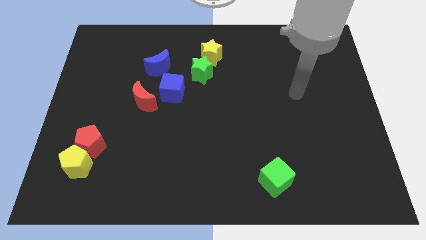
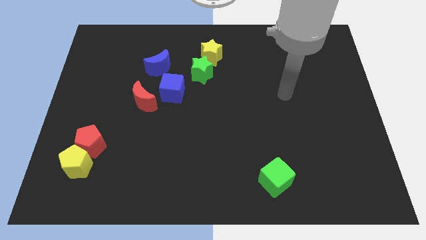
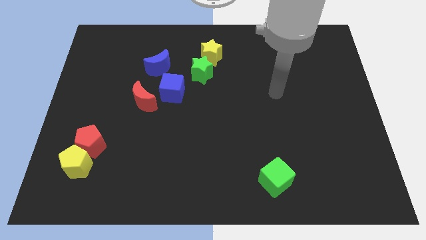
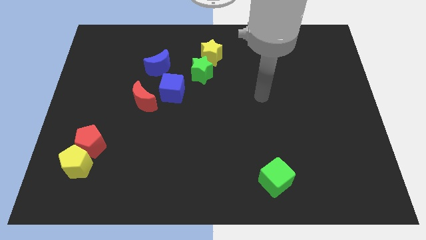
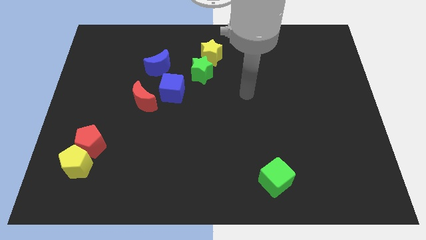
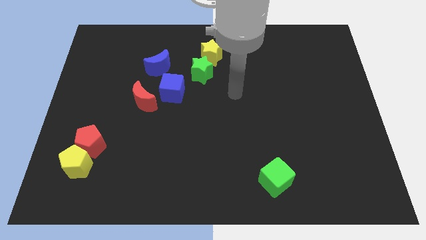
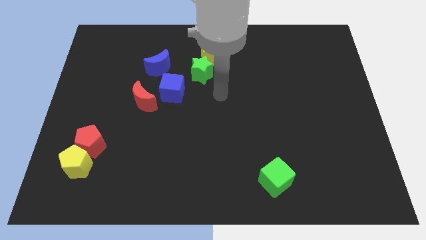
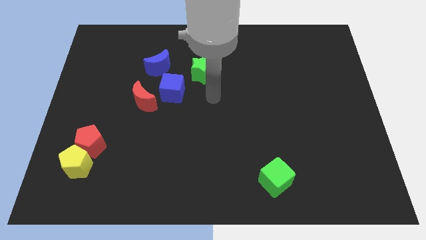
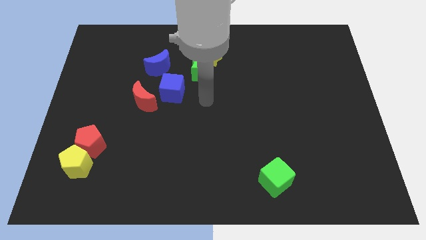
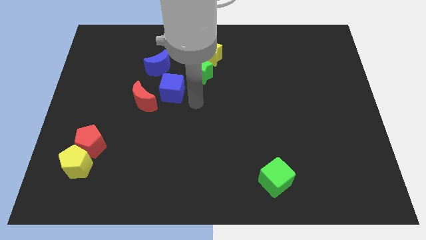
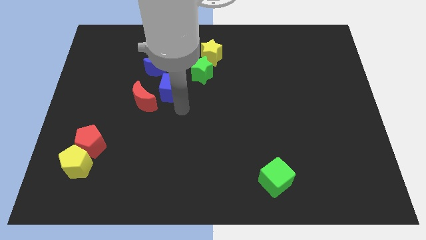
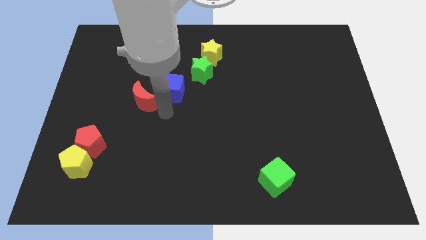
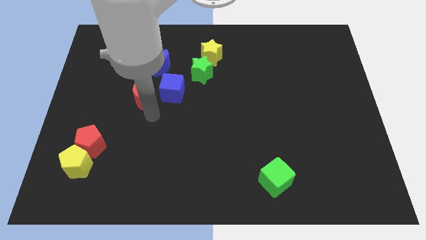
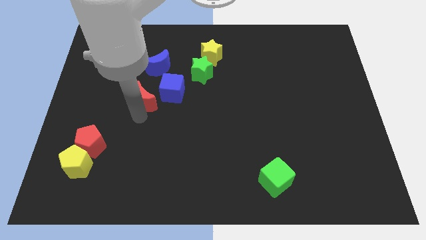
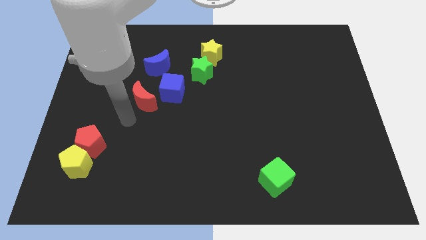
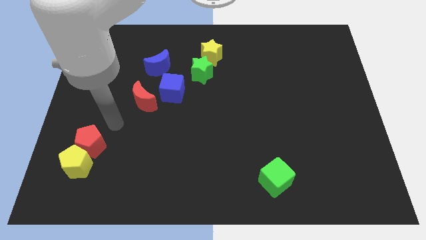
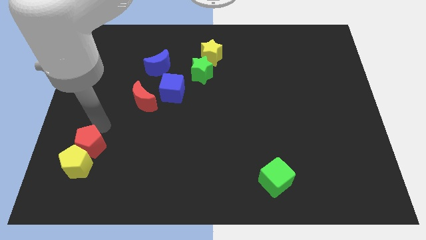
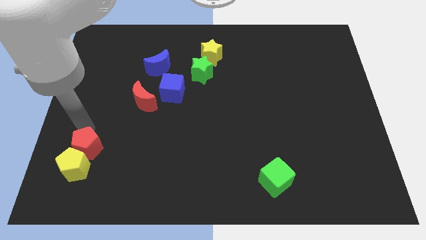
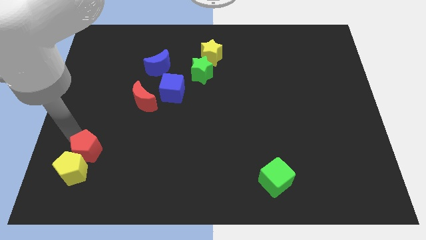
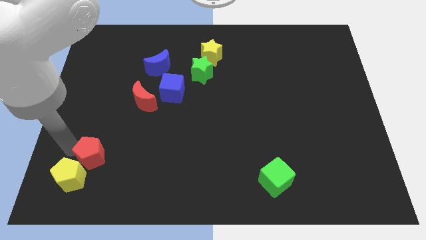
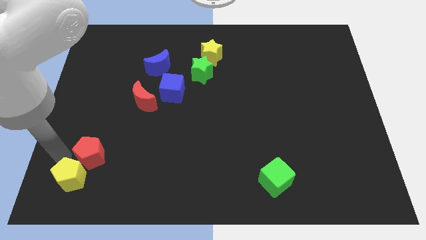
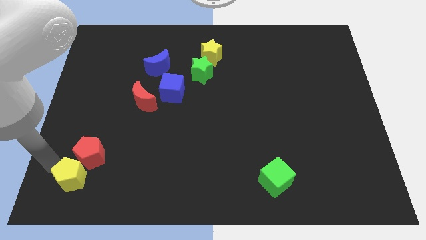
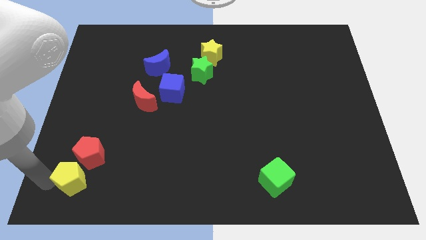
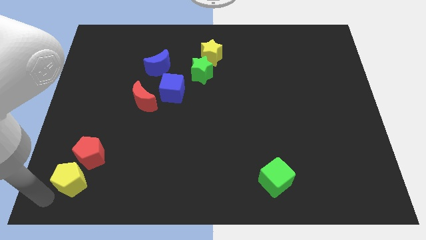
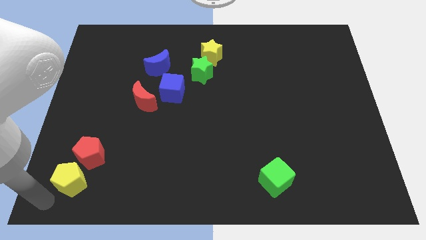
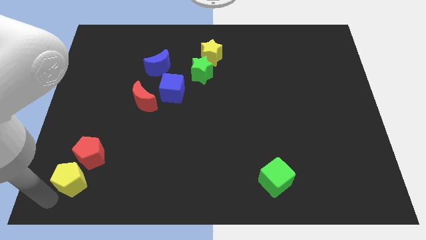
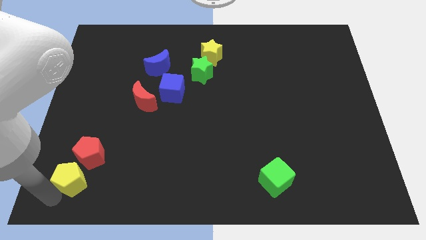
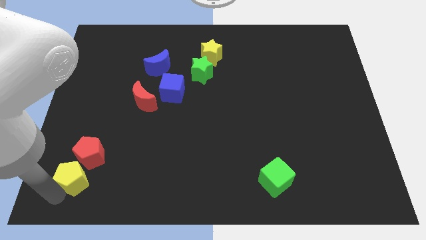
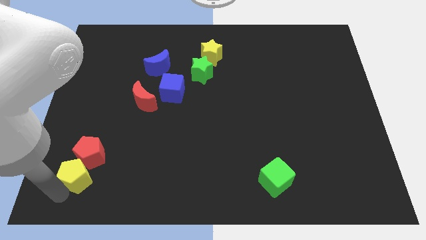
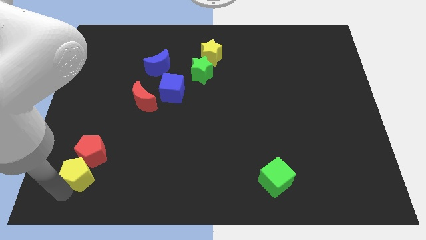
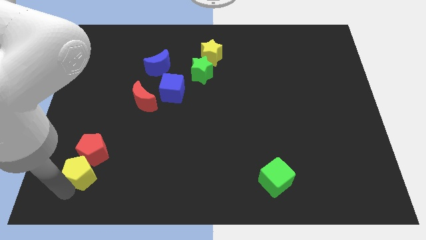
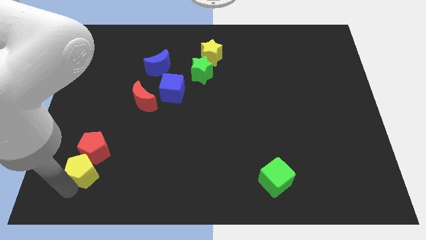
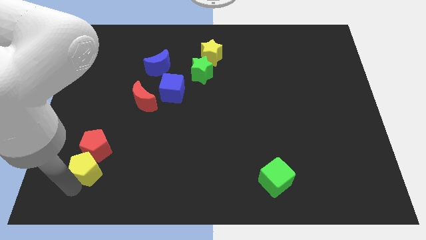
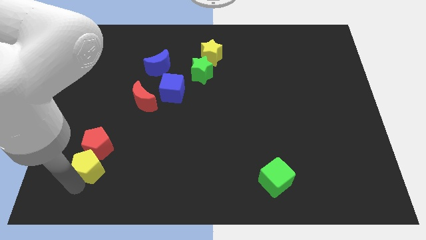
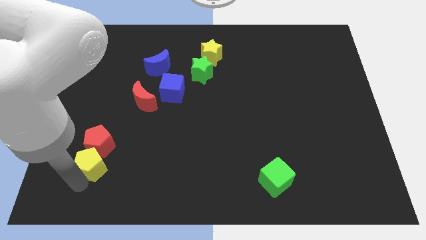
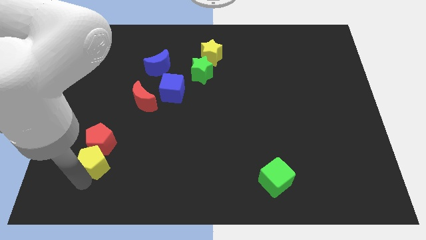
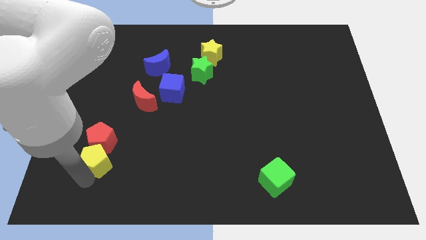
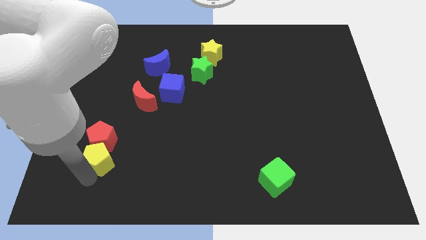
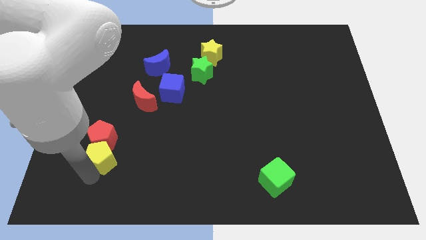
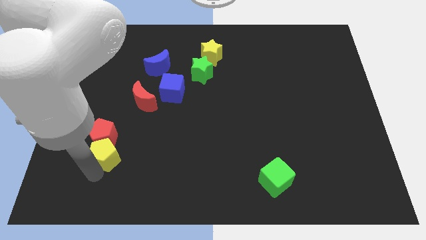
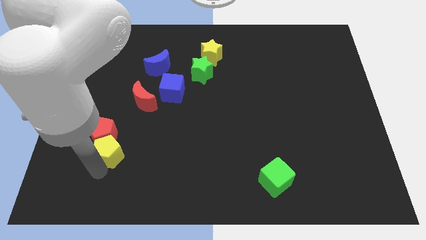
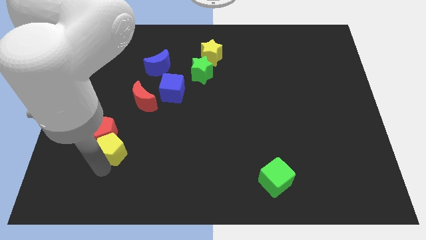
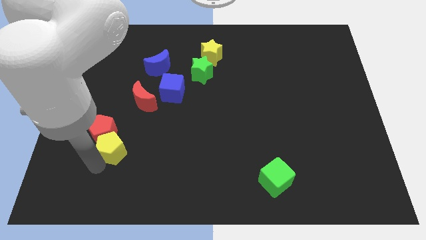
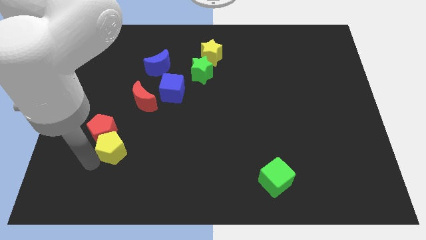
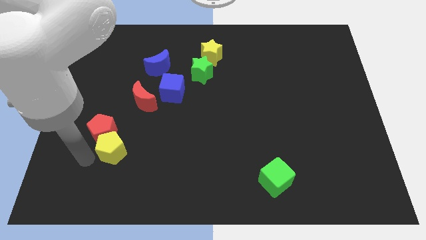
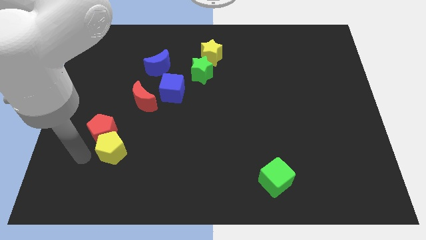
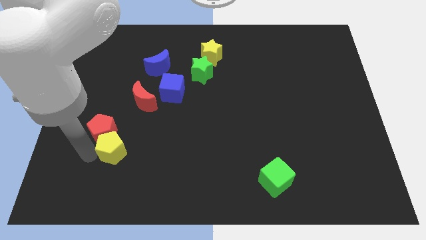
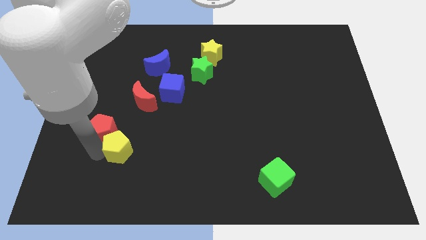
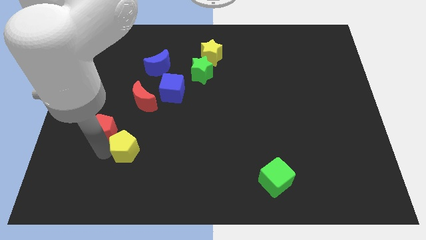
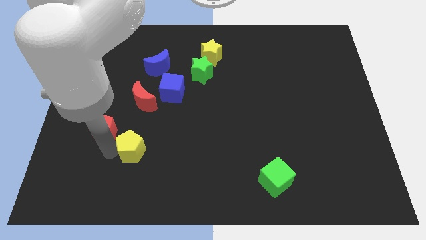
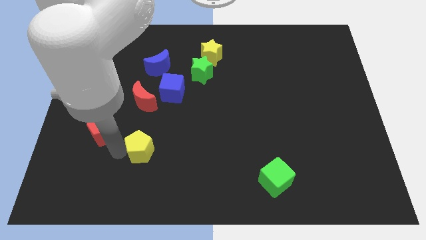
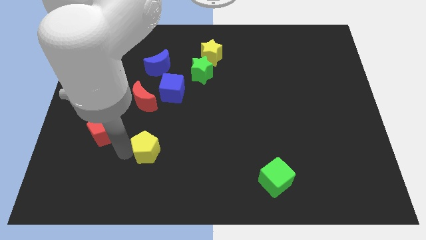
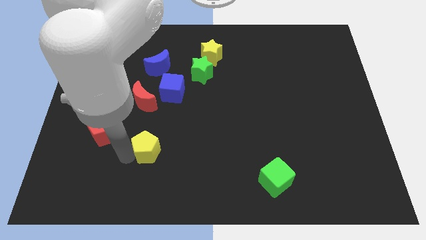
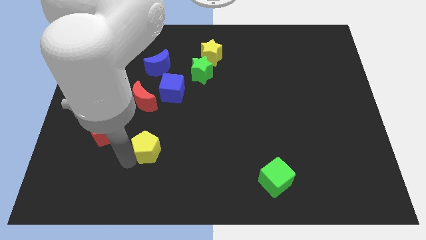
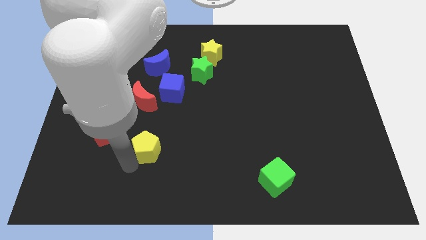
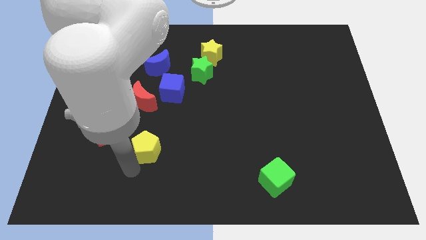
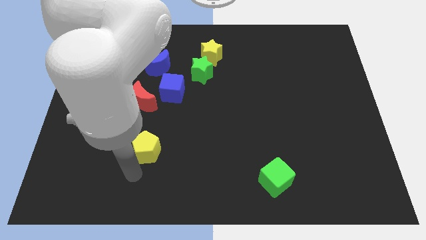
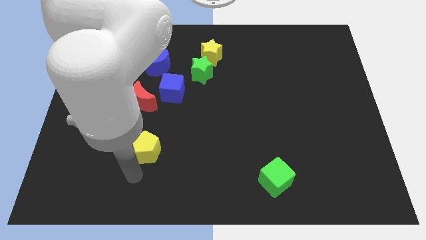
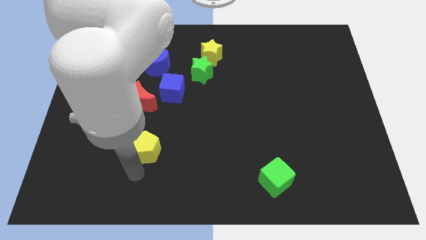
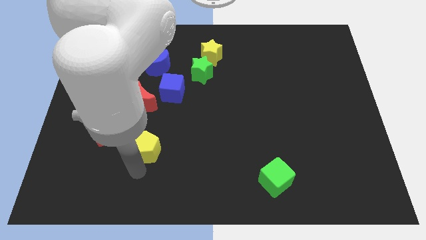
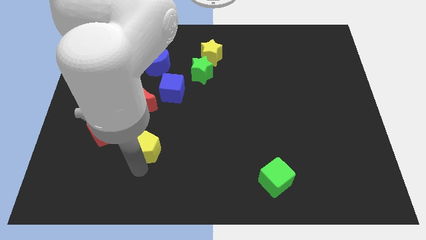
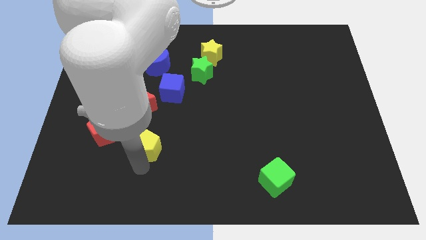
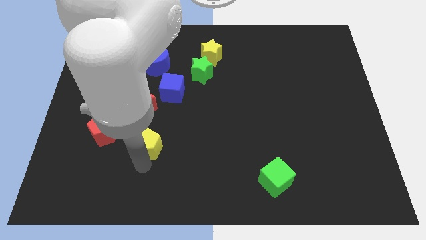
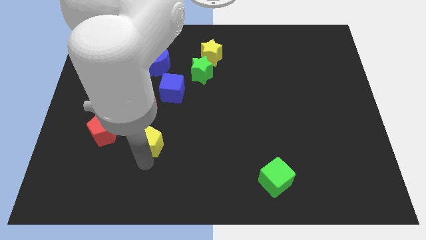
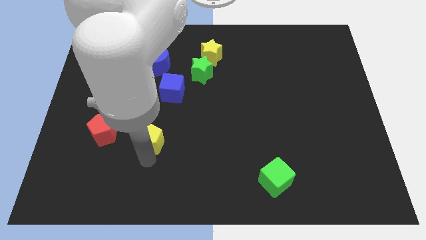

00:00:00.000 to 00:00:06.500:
slide the yellow pentagon to the bottom of the blue cube

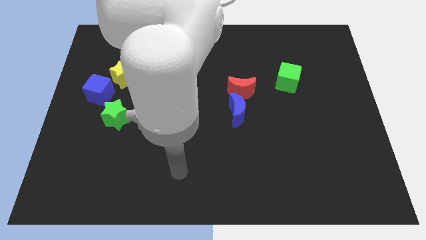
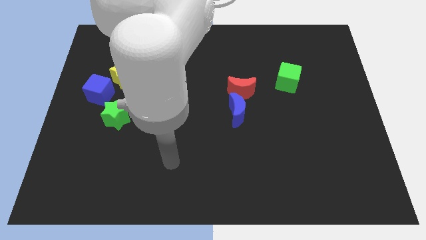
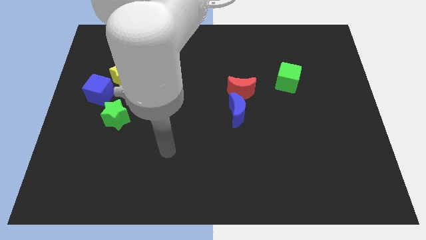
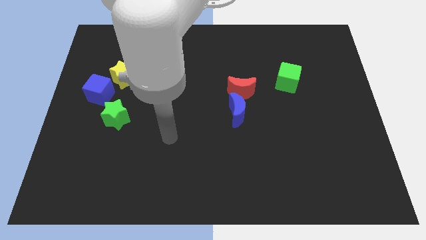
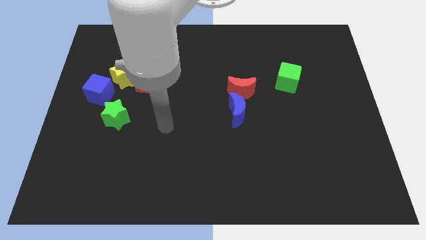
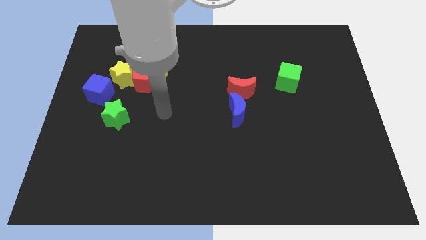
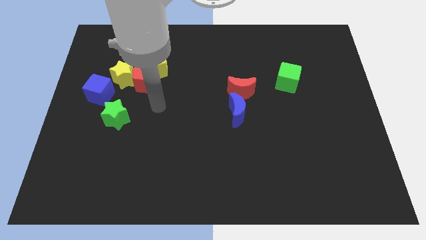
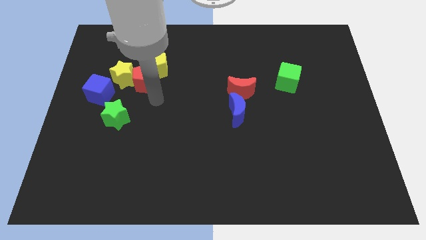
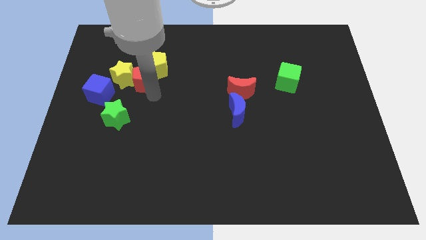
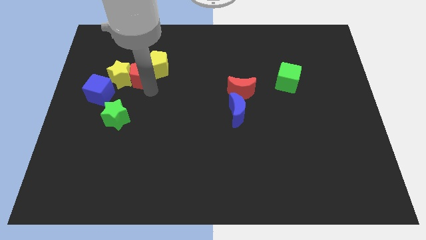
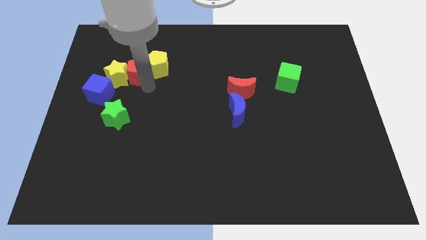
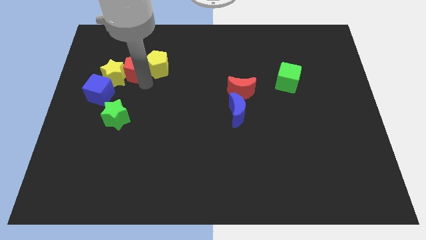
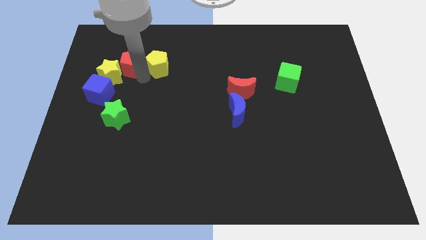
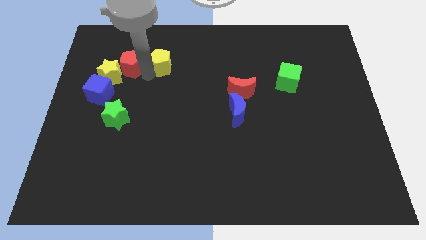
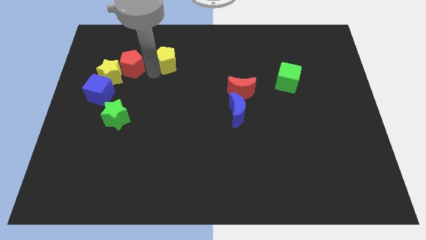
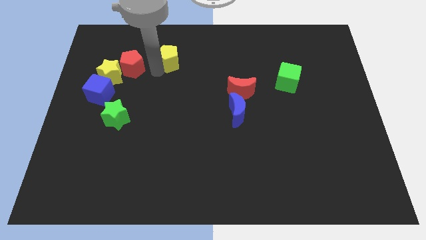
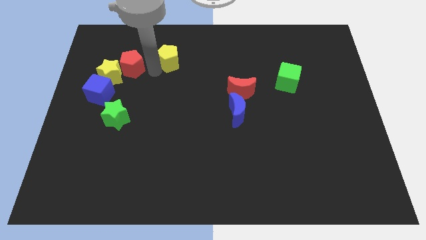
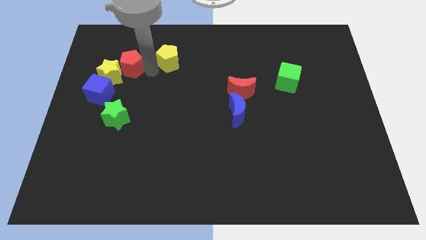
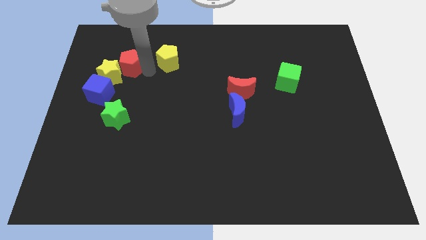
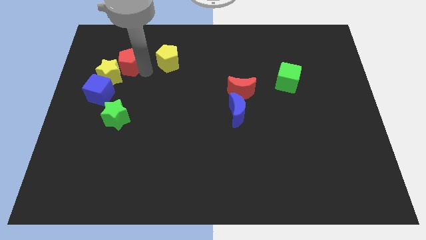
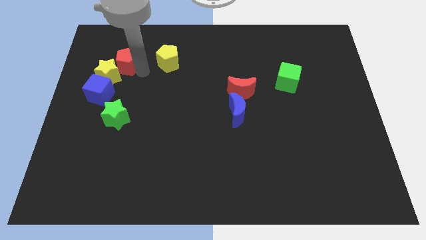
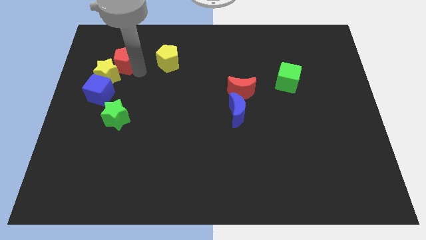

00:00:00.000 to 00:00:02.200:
slide the red pentagon above the blue cube
